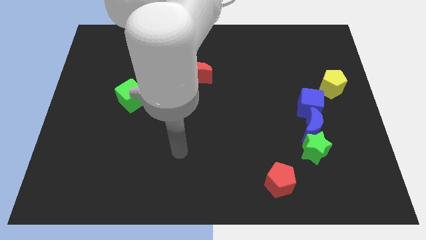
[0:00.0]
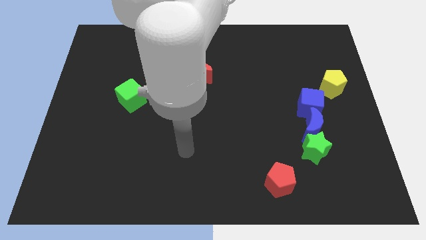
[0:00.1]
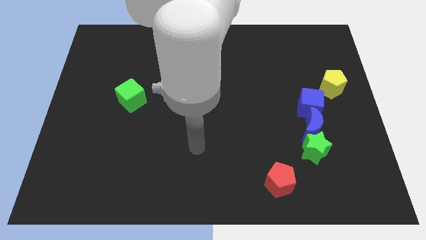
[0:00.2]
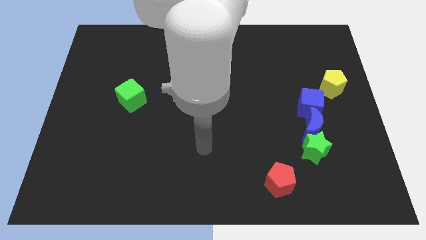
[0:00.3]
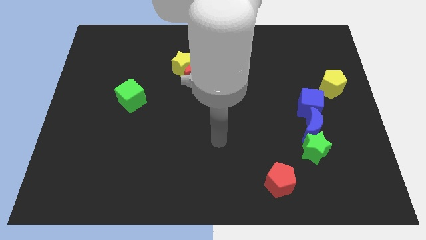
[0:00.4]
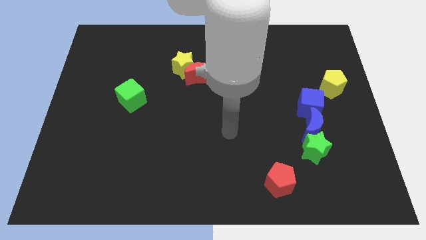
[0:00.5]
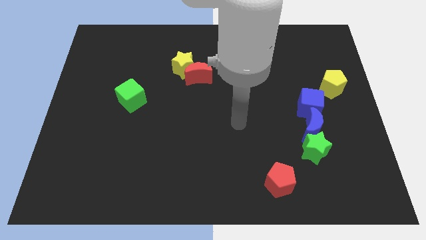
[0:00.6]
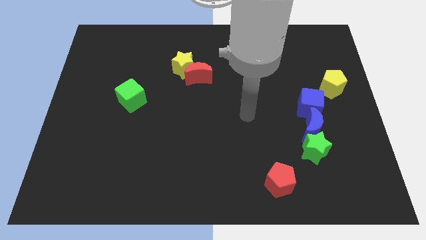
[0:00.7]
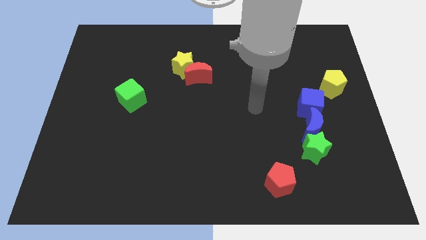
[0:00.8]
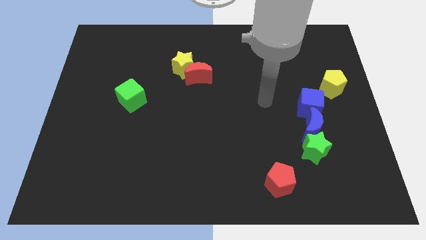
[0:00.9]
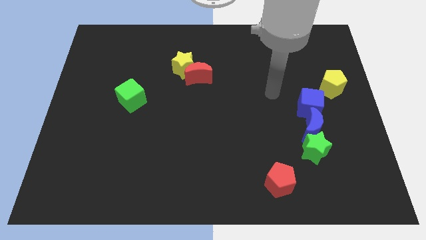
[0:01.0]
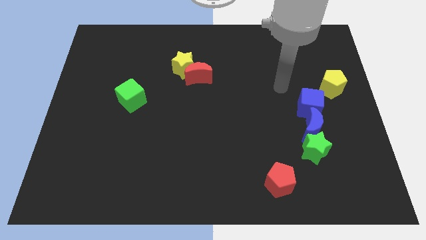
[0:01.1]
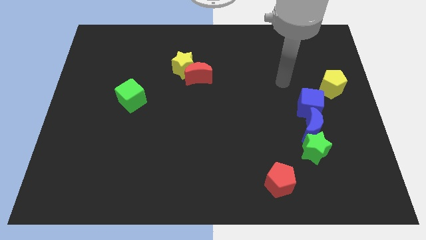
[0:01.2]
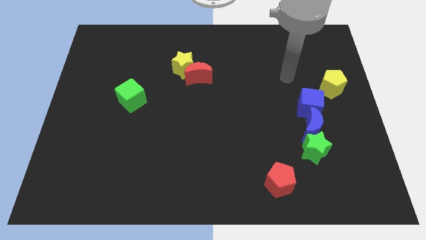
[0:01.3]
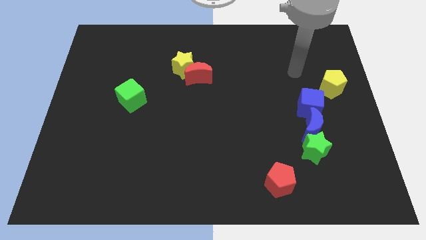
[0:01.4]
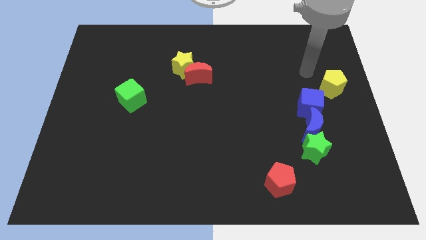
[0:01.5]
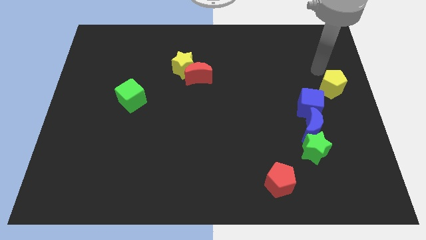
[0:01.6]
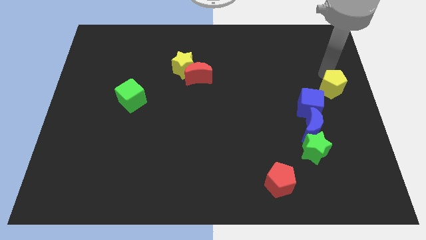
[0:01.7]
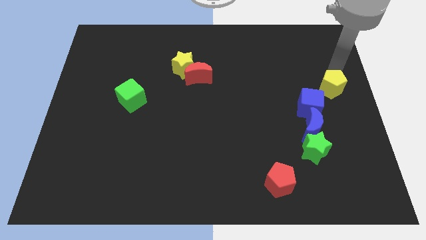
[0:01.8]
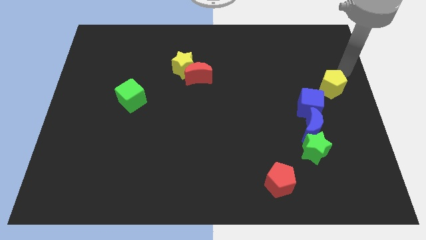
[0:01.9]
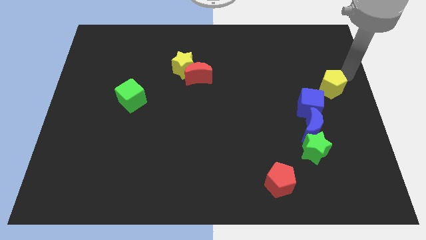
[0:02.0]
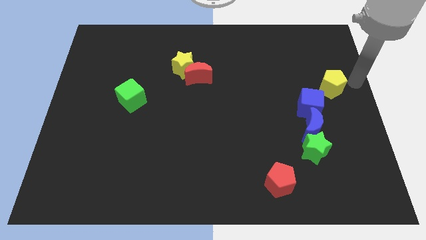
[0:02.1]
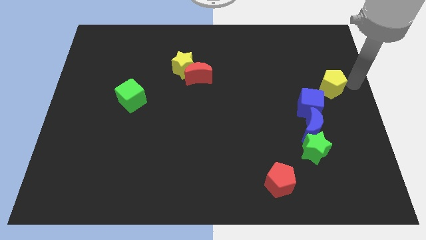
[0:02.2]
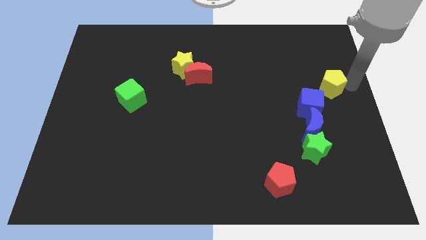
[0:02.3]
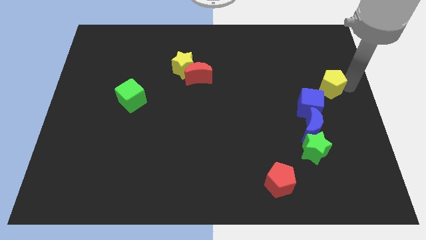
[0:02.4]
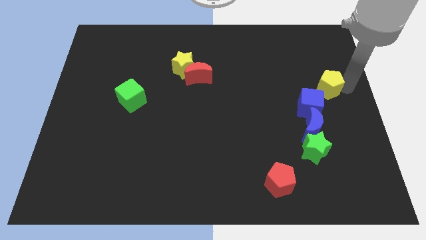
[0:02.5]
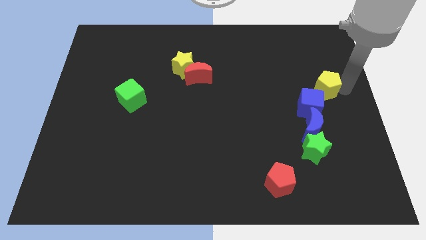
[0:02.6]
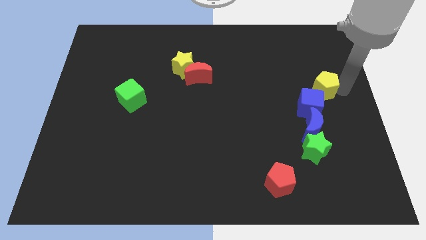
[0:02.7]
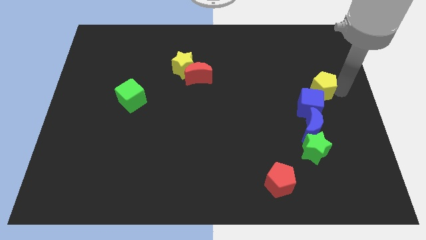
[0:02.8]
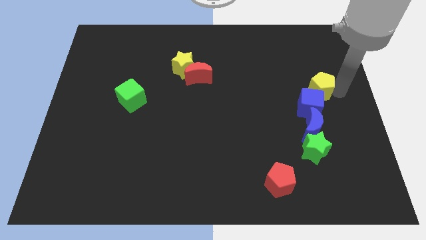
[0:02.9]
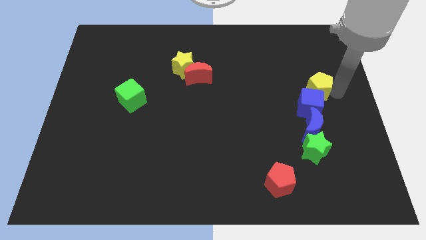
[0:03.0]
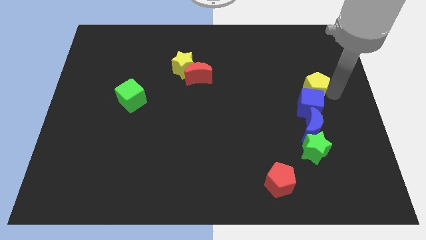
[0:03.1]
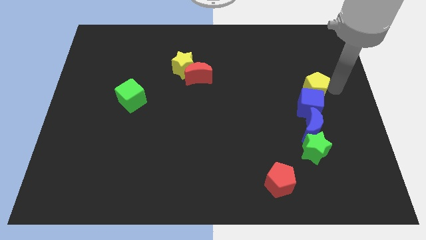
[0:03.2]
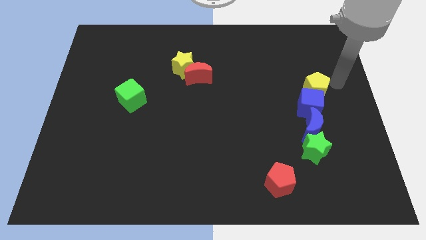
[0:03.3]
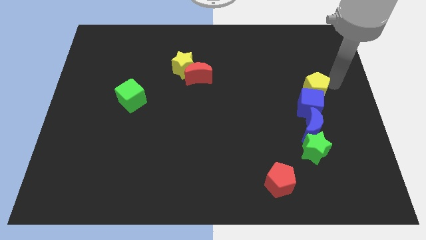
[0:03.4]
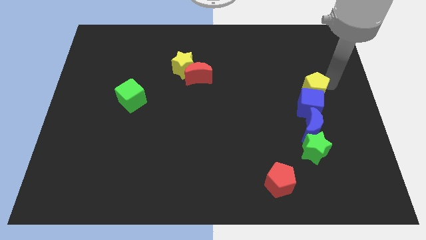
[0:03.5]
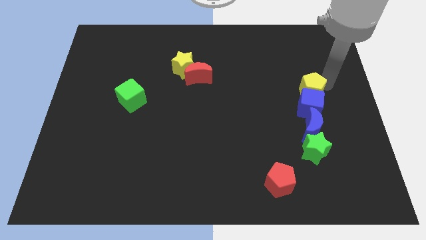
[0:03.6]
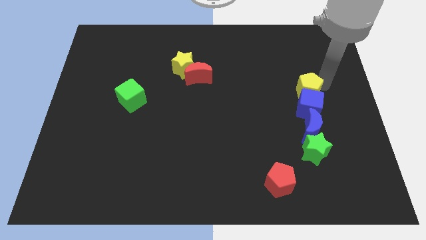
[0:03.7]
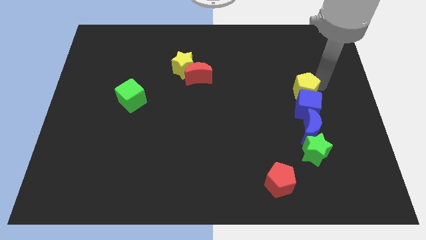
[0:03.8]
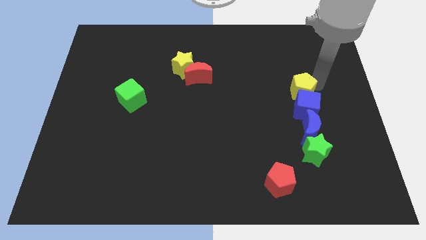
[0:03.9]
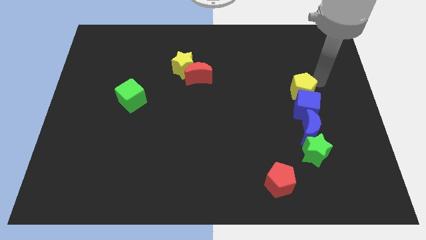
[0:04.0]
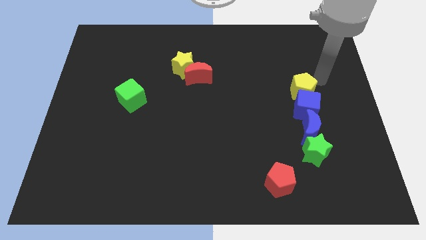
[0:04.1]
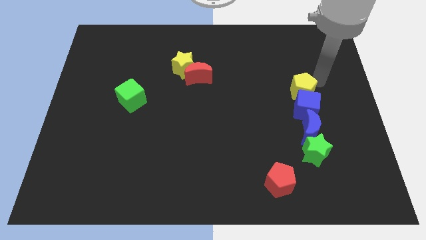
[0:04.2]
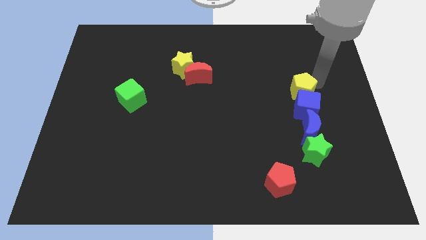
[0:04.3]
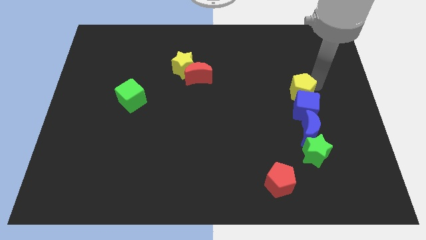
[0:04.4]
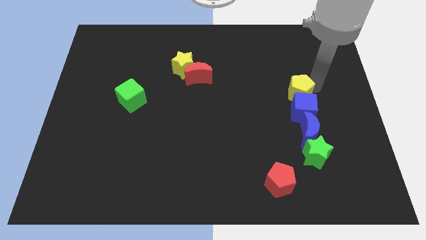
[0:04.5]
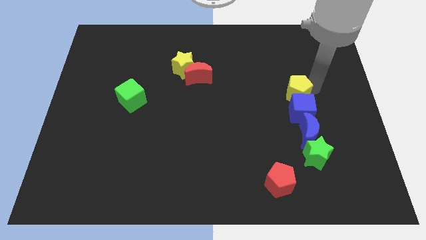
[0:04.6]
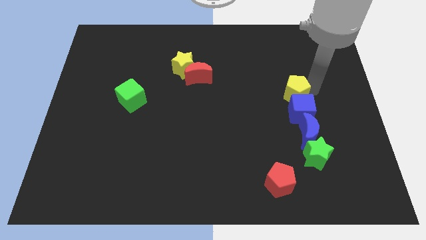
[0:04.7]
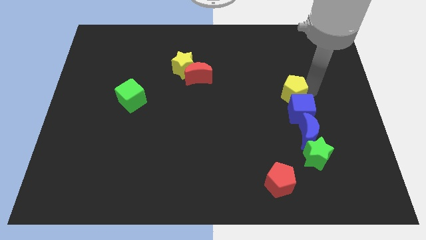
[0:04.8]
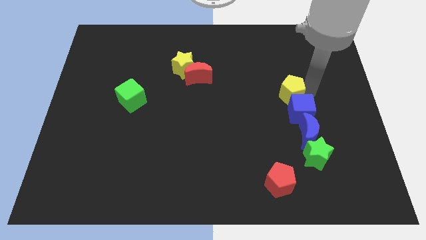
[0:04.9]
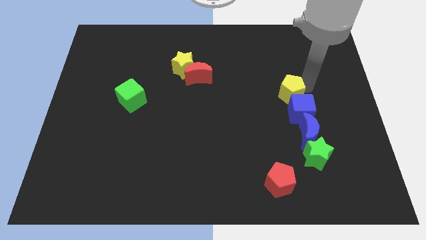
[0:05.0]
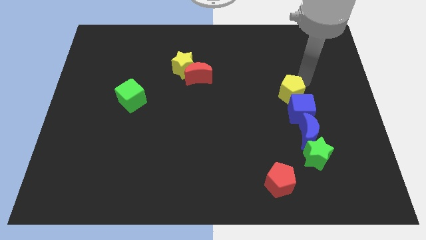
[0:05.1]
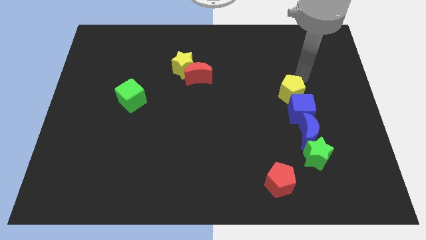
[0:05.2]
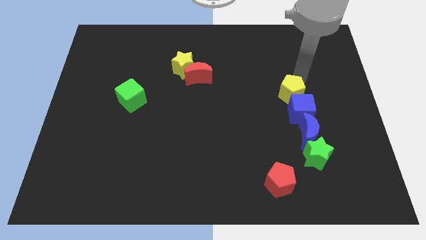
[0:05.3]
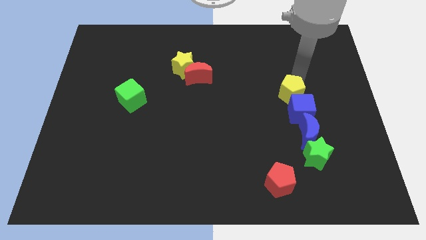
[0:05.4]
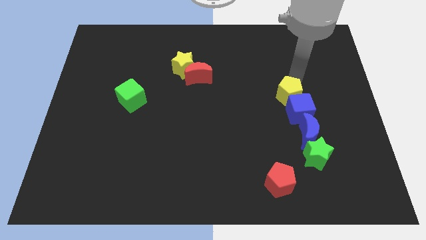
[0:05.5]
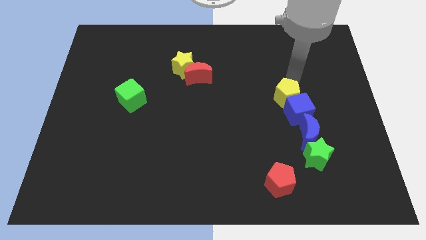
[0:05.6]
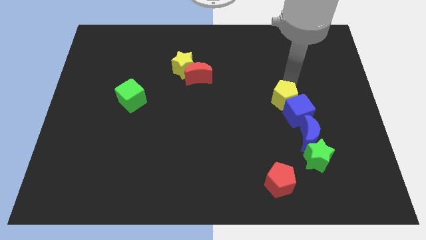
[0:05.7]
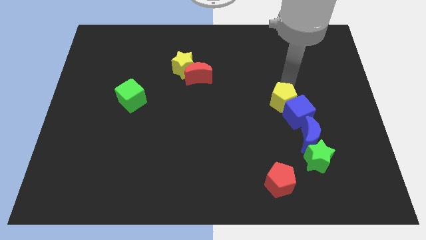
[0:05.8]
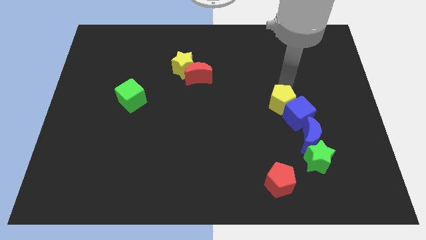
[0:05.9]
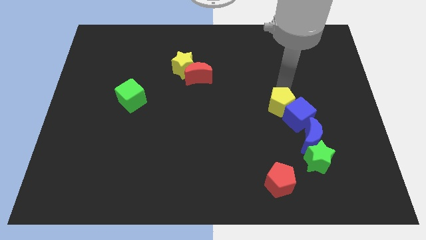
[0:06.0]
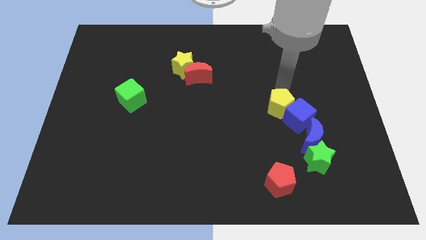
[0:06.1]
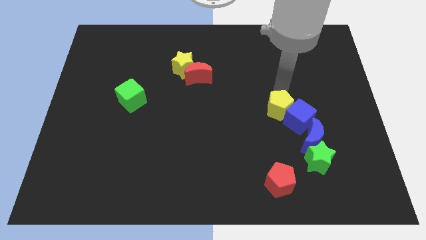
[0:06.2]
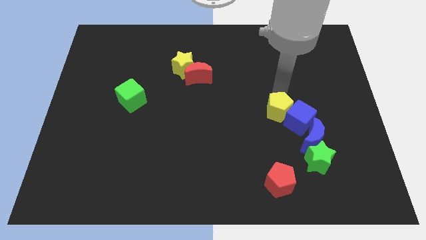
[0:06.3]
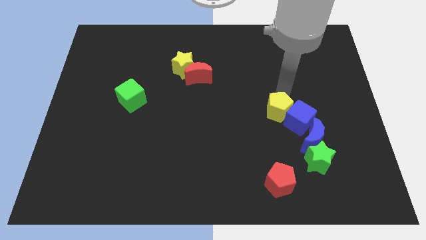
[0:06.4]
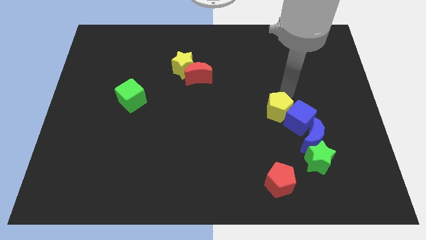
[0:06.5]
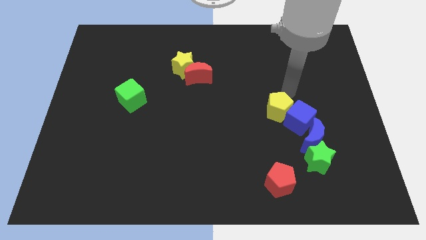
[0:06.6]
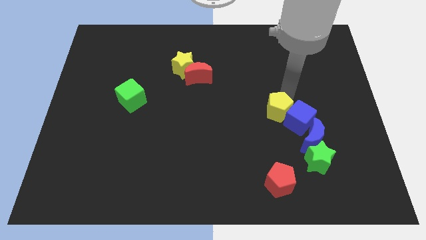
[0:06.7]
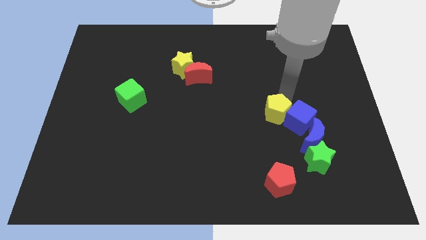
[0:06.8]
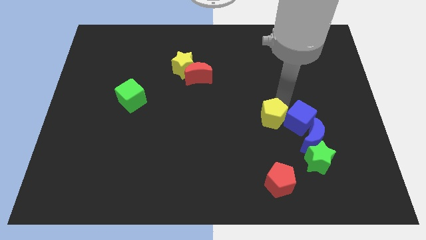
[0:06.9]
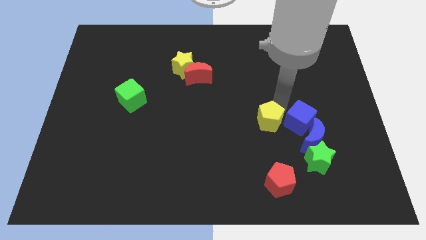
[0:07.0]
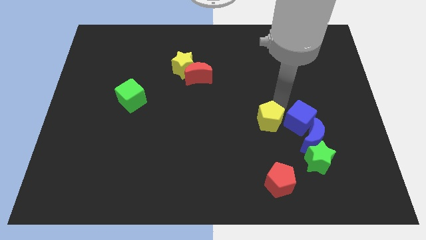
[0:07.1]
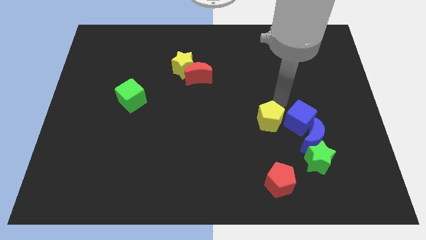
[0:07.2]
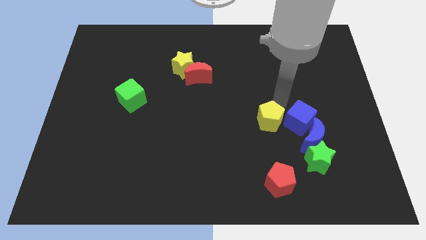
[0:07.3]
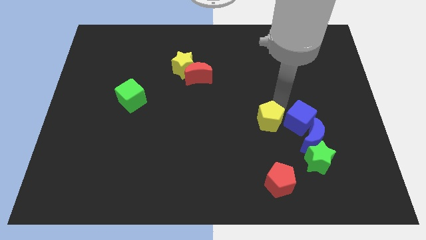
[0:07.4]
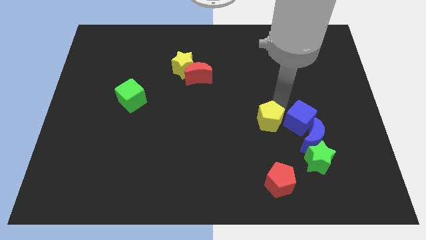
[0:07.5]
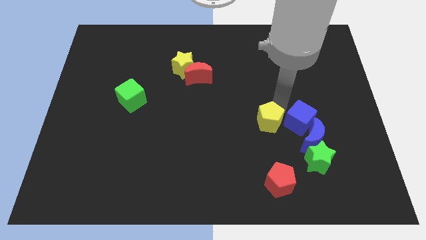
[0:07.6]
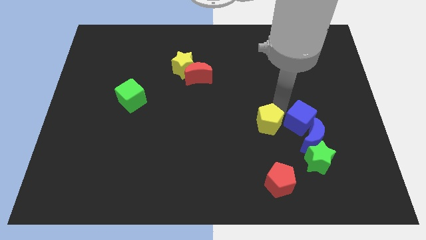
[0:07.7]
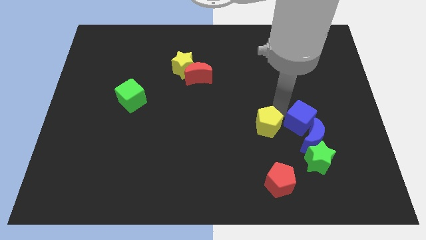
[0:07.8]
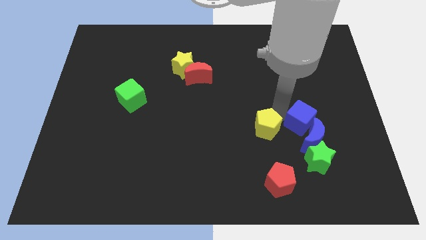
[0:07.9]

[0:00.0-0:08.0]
move the yellow pentagon down and then left
